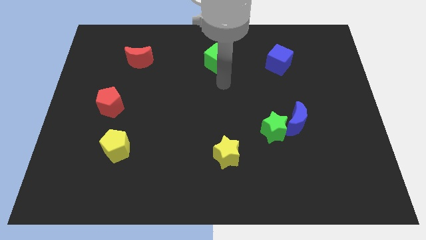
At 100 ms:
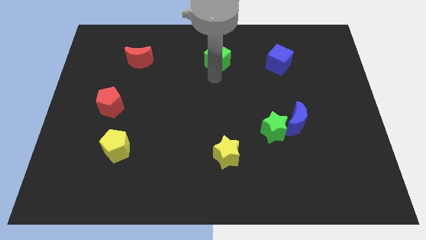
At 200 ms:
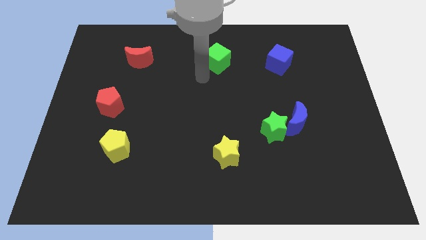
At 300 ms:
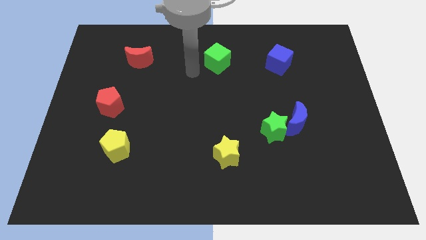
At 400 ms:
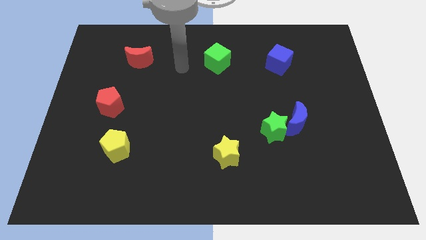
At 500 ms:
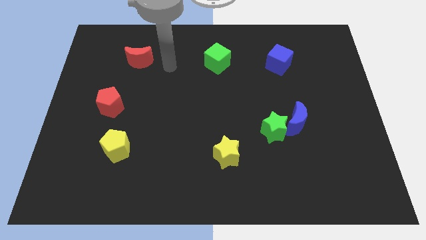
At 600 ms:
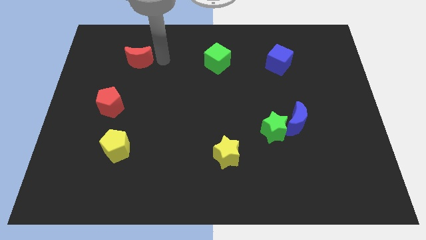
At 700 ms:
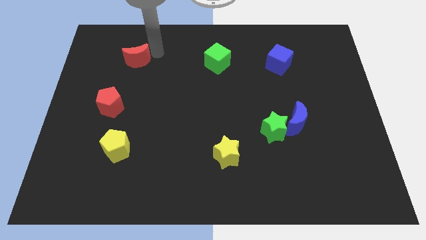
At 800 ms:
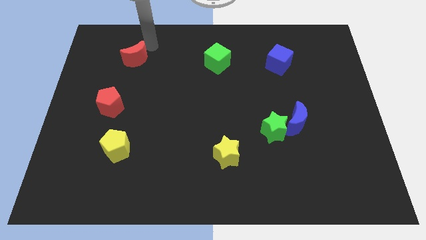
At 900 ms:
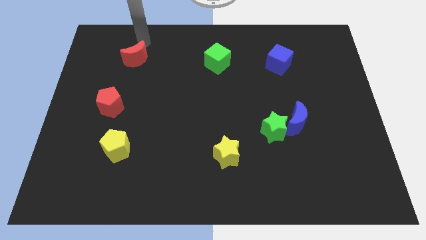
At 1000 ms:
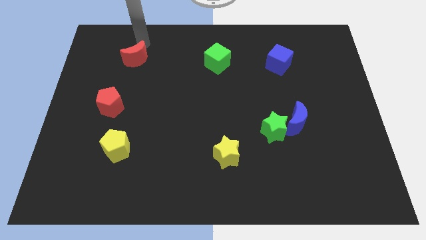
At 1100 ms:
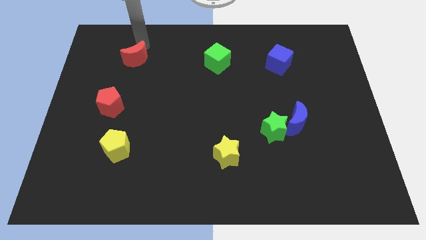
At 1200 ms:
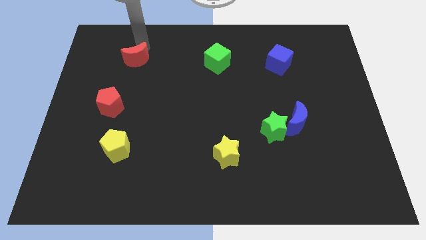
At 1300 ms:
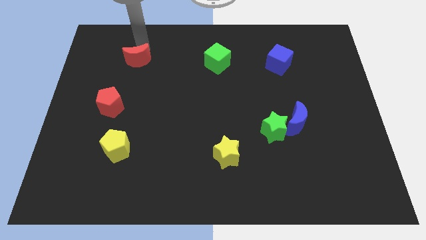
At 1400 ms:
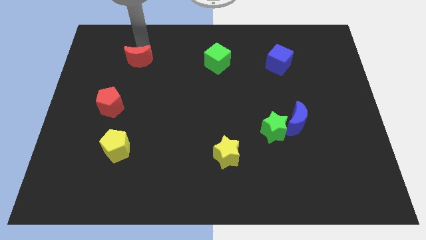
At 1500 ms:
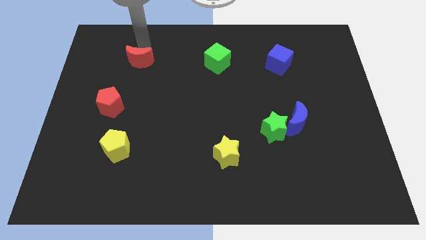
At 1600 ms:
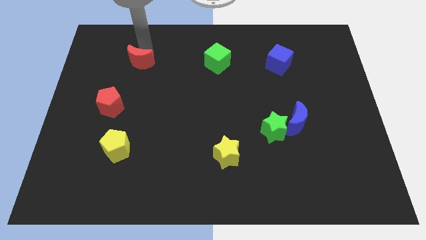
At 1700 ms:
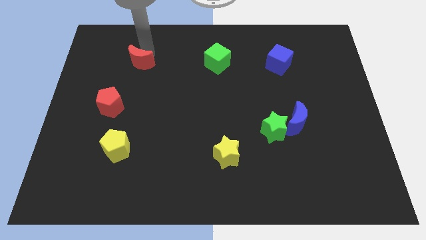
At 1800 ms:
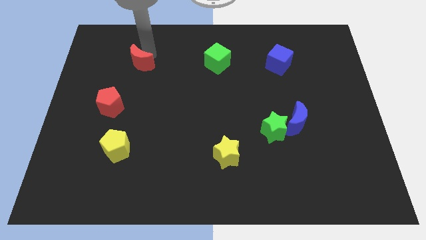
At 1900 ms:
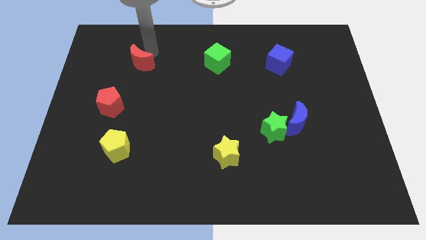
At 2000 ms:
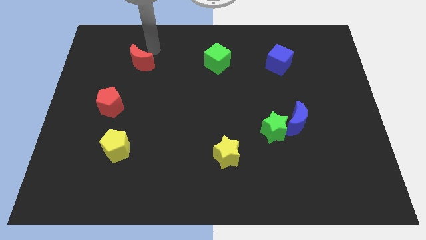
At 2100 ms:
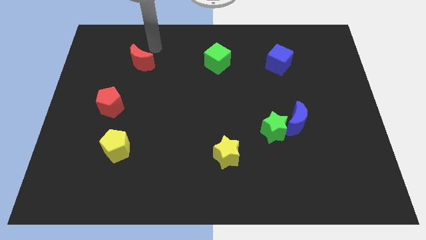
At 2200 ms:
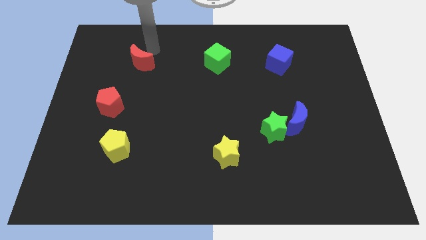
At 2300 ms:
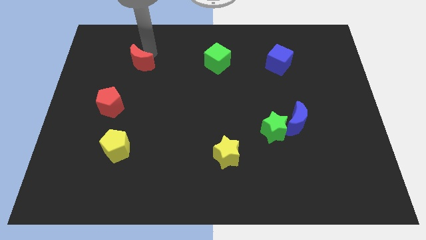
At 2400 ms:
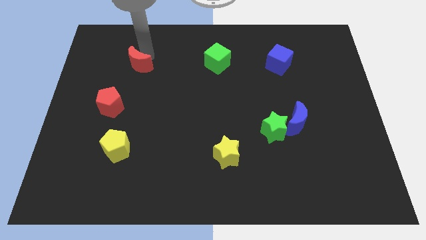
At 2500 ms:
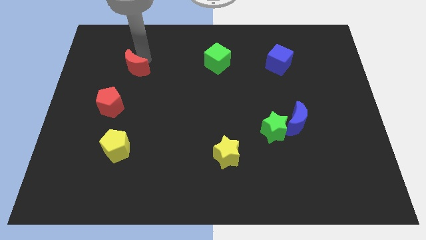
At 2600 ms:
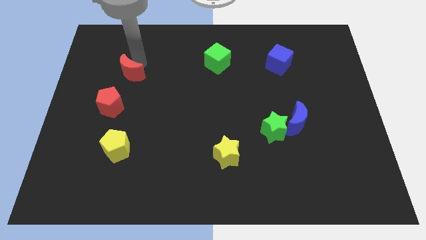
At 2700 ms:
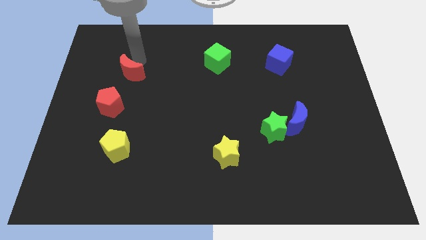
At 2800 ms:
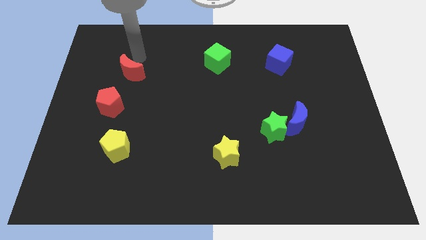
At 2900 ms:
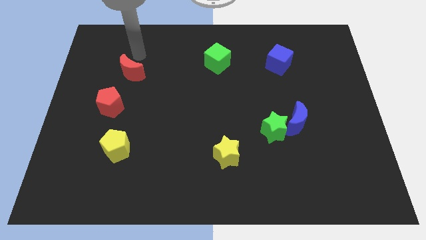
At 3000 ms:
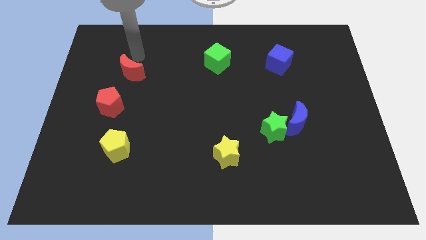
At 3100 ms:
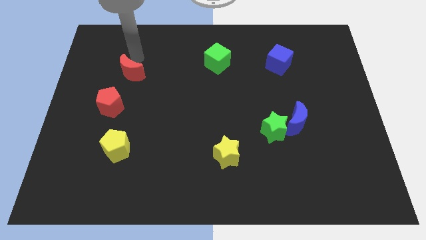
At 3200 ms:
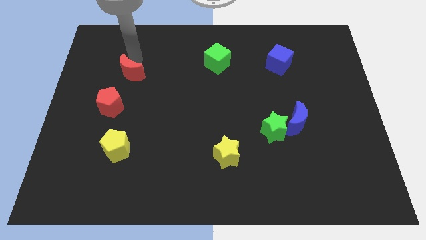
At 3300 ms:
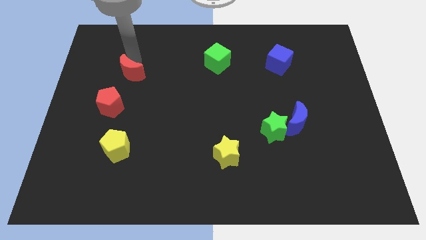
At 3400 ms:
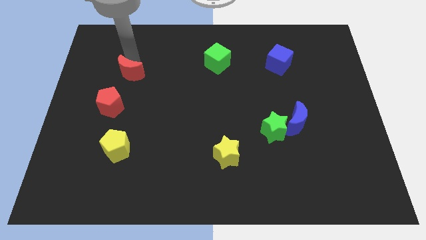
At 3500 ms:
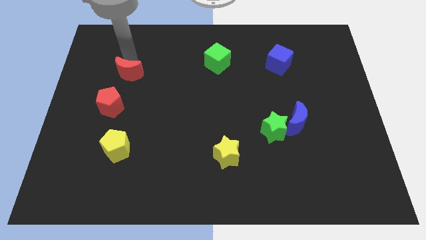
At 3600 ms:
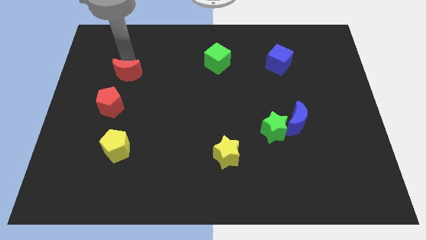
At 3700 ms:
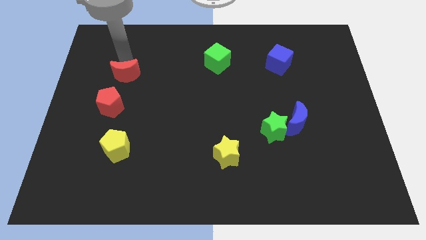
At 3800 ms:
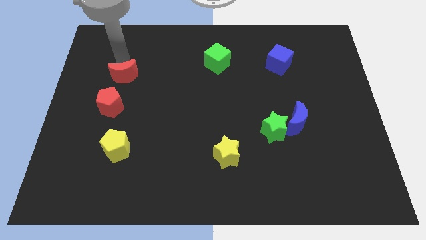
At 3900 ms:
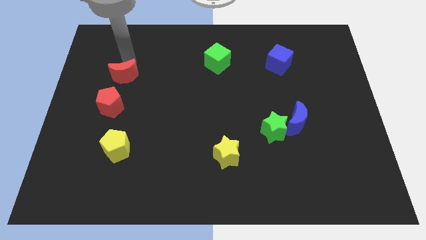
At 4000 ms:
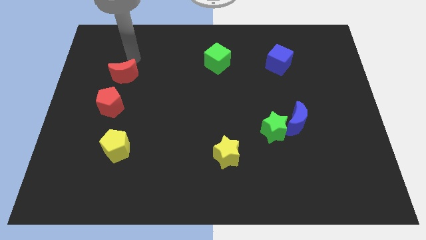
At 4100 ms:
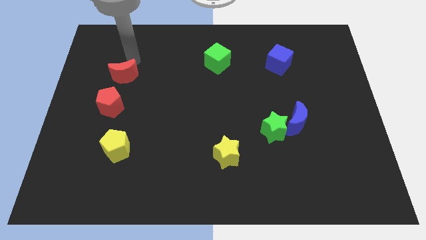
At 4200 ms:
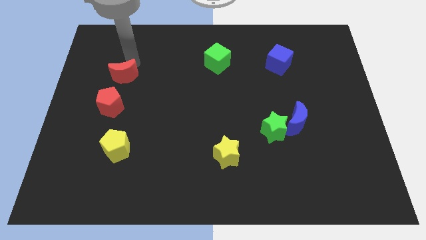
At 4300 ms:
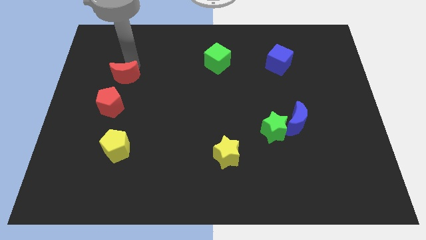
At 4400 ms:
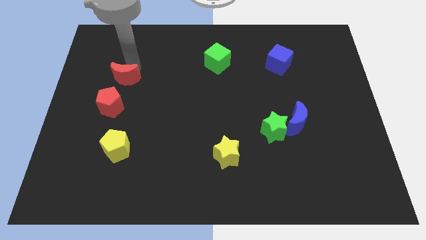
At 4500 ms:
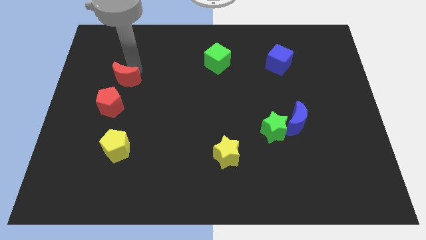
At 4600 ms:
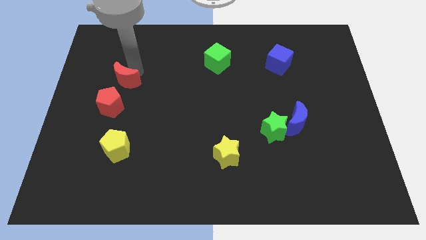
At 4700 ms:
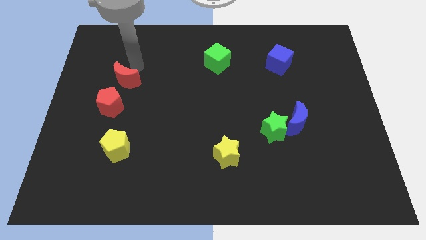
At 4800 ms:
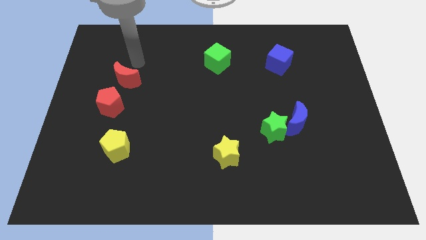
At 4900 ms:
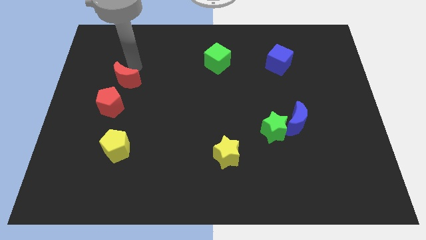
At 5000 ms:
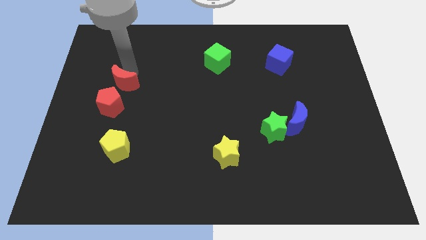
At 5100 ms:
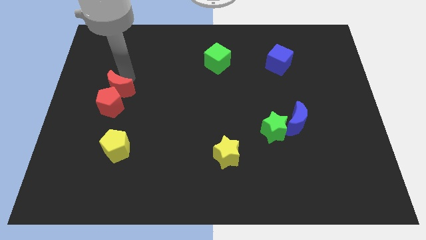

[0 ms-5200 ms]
move the red moon next to the red pentagon

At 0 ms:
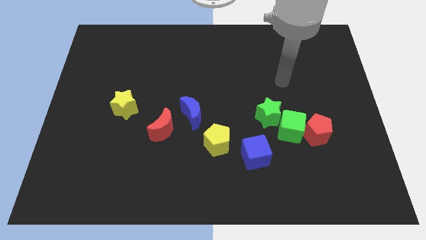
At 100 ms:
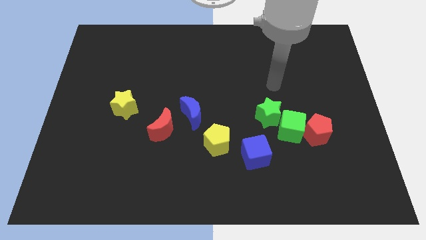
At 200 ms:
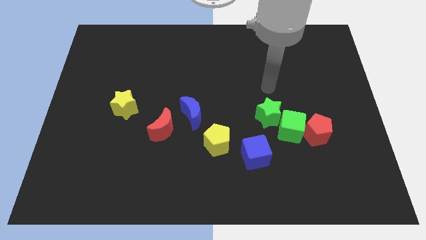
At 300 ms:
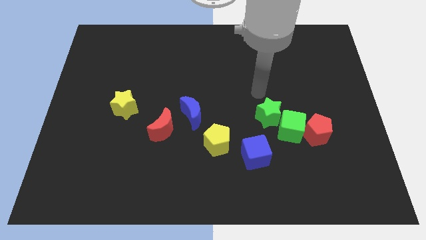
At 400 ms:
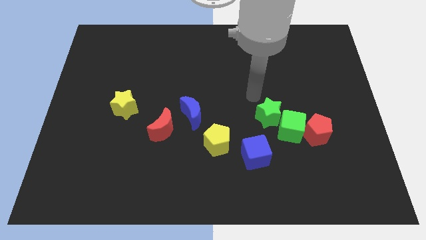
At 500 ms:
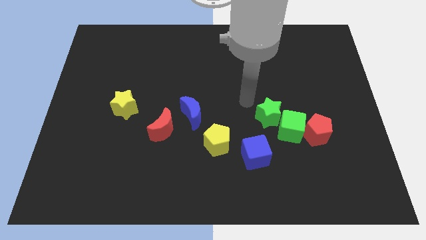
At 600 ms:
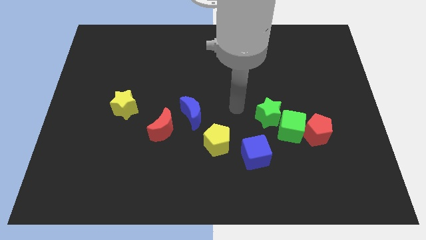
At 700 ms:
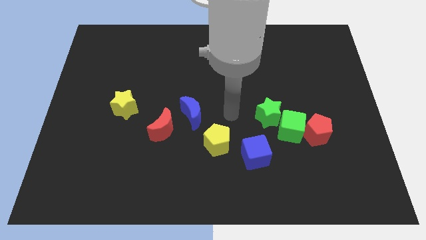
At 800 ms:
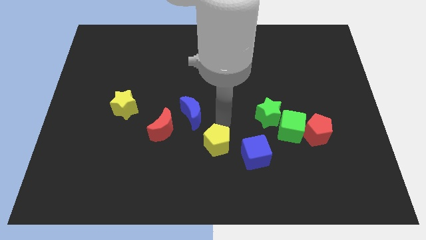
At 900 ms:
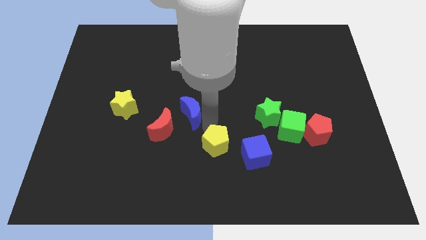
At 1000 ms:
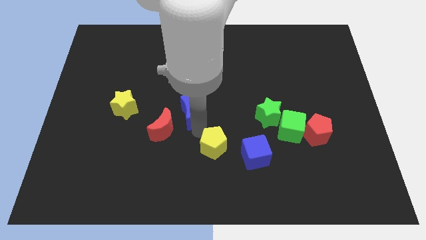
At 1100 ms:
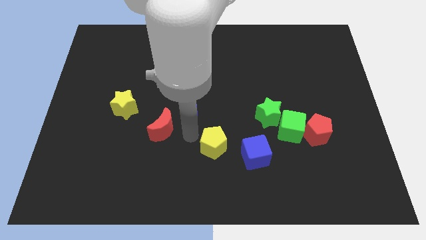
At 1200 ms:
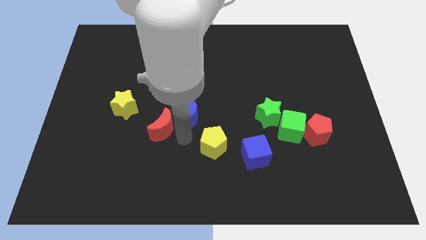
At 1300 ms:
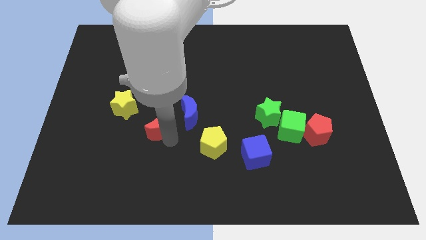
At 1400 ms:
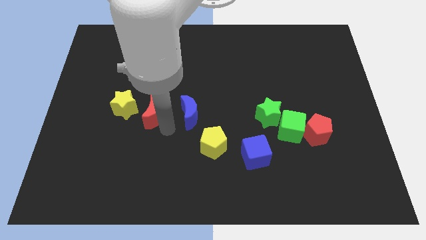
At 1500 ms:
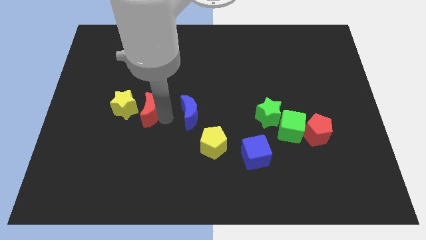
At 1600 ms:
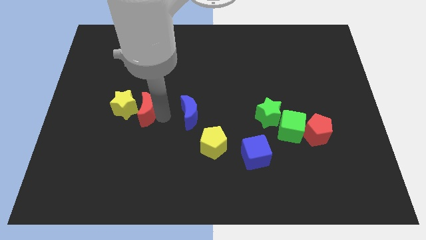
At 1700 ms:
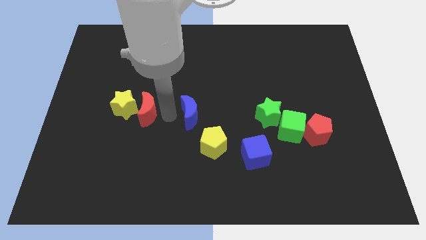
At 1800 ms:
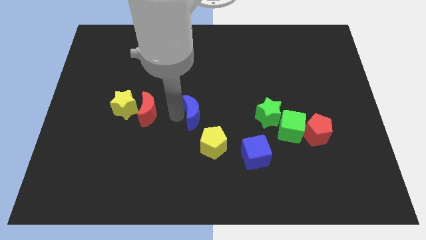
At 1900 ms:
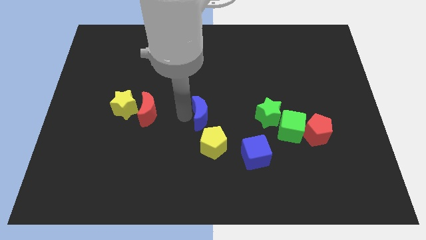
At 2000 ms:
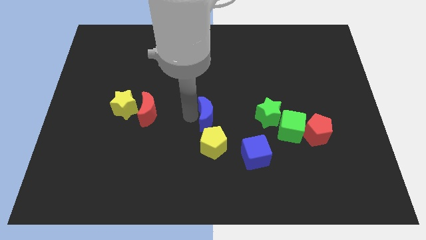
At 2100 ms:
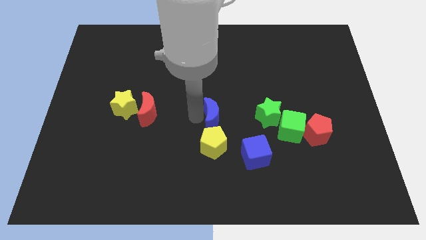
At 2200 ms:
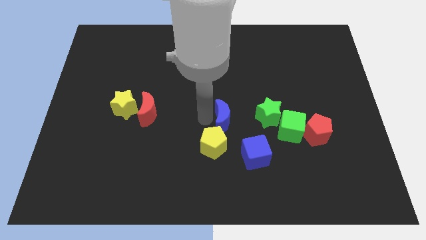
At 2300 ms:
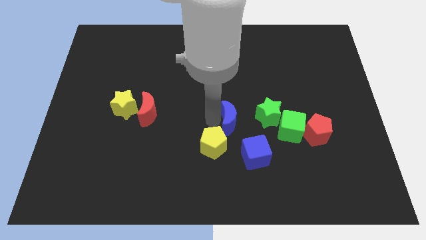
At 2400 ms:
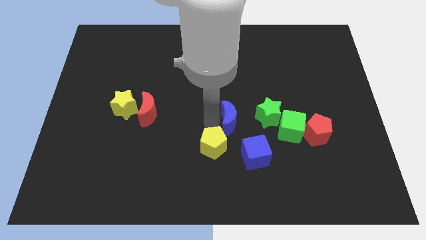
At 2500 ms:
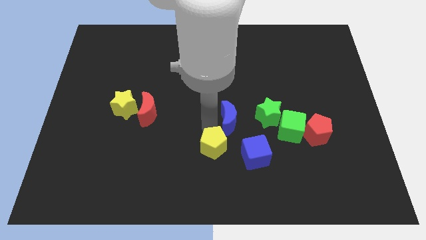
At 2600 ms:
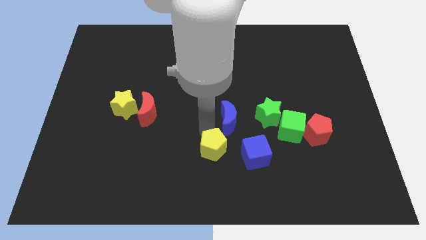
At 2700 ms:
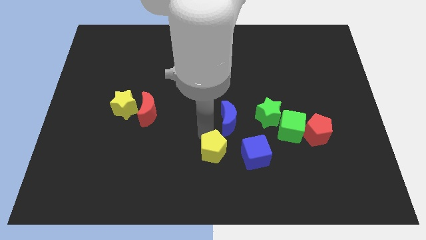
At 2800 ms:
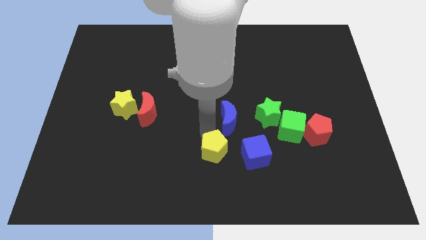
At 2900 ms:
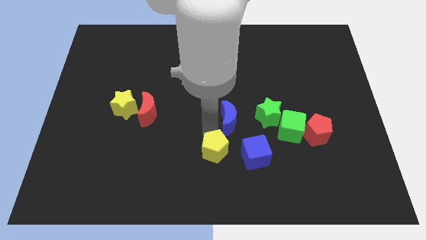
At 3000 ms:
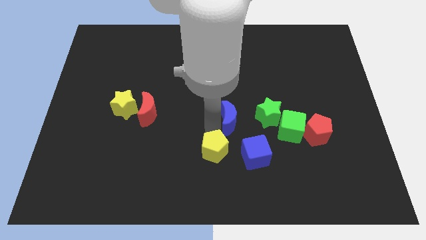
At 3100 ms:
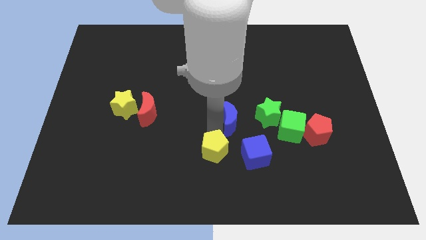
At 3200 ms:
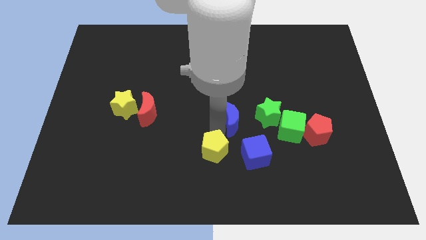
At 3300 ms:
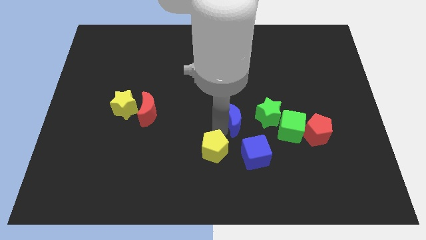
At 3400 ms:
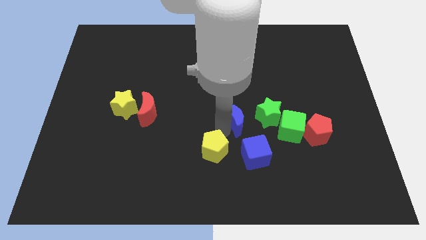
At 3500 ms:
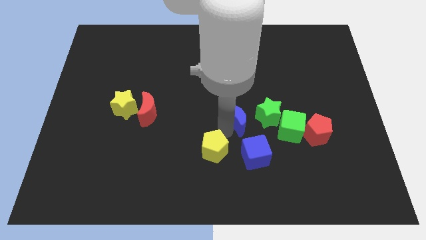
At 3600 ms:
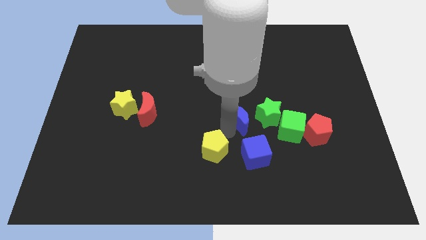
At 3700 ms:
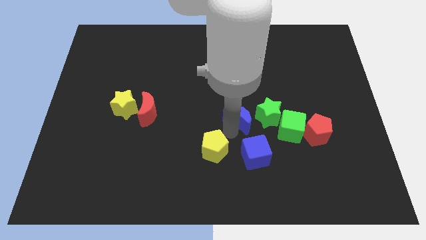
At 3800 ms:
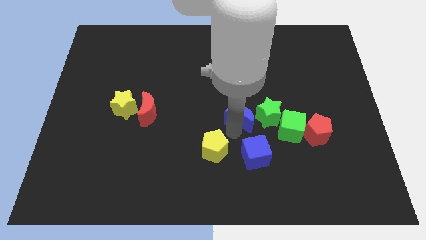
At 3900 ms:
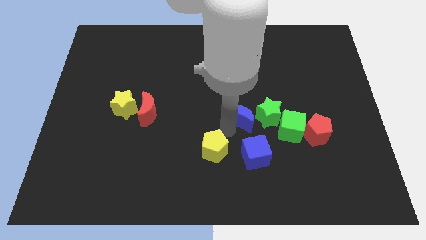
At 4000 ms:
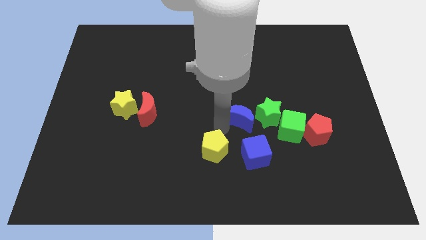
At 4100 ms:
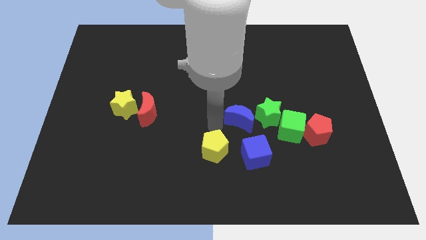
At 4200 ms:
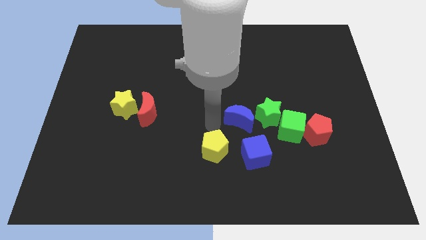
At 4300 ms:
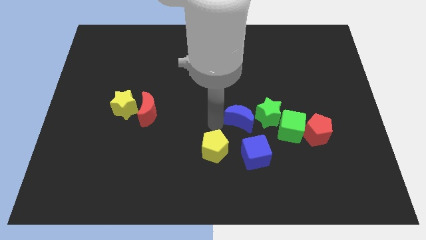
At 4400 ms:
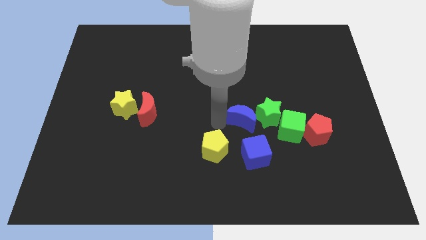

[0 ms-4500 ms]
move the blue moon towards the green star
